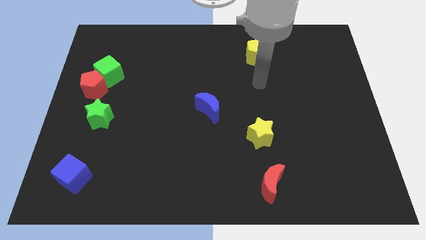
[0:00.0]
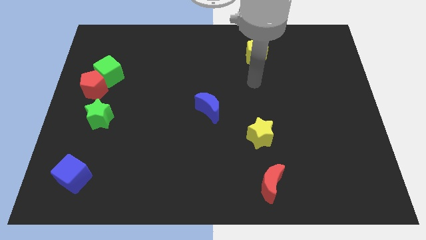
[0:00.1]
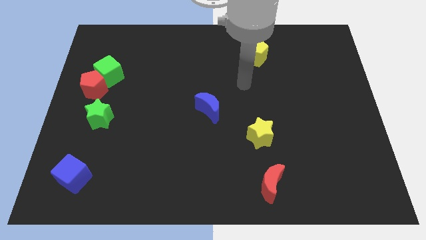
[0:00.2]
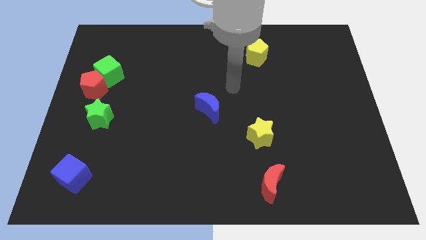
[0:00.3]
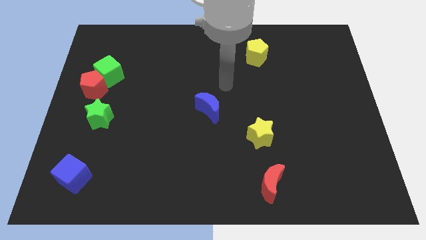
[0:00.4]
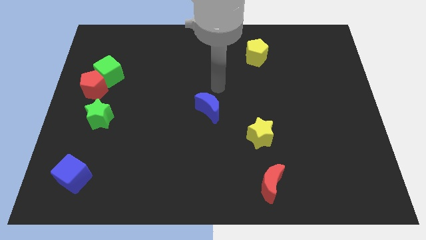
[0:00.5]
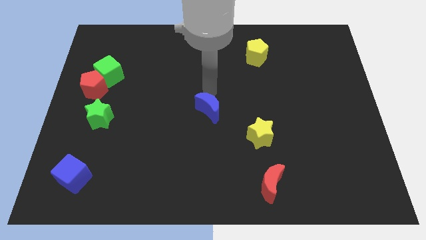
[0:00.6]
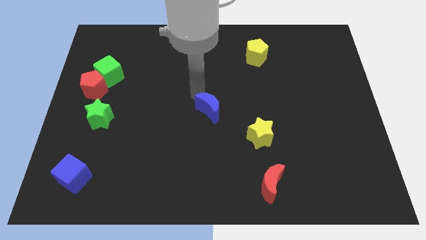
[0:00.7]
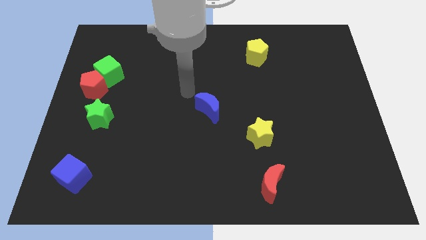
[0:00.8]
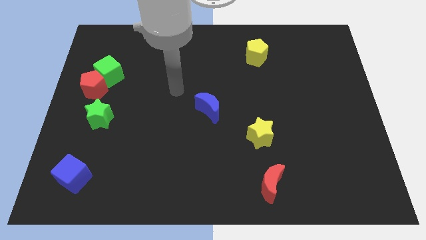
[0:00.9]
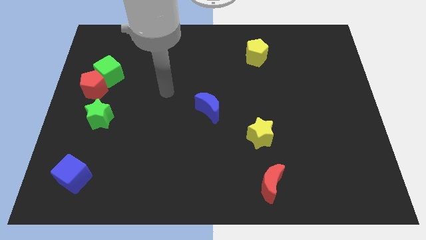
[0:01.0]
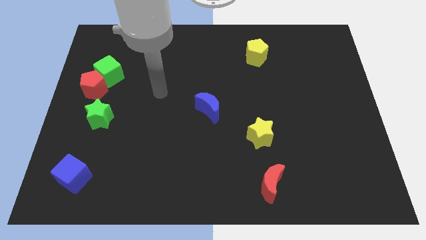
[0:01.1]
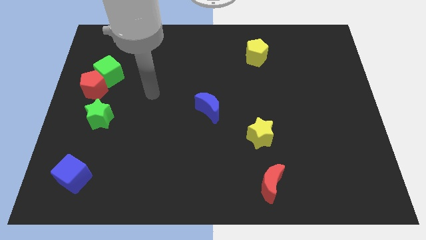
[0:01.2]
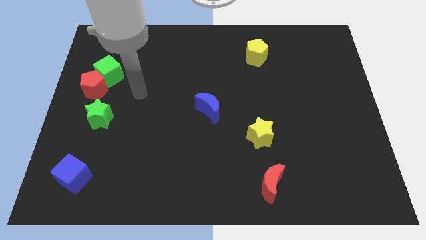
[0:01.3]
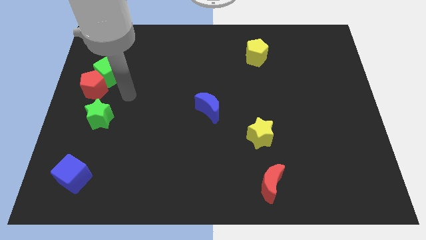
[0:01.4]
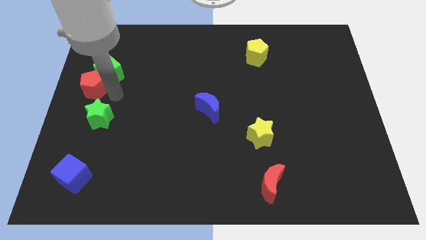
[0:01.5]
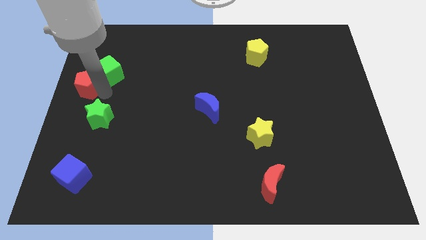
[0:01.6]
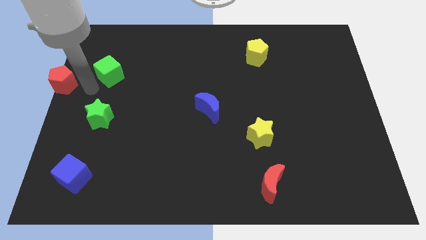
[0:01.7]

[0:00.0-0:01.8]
pull the green cube apart from the red pentagon

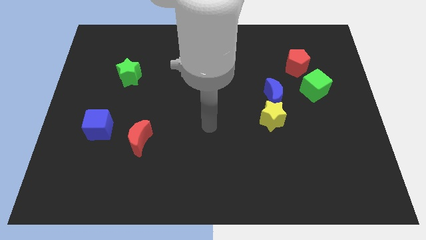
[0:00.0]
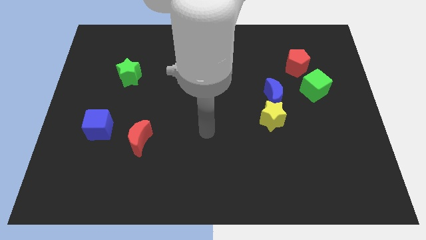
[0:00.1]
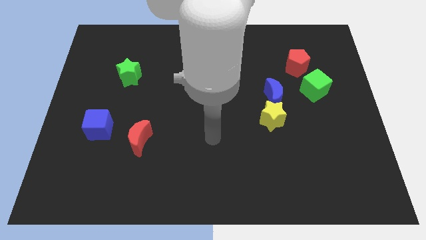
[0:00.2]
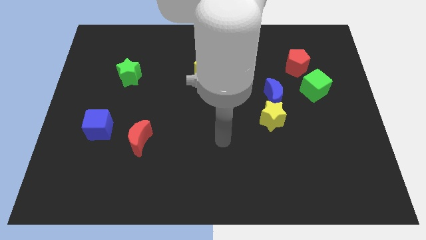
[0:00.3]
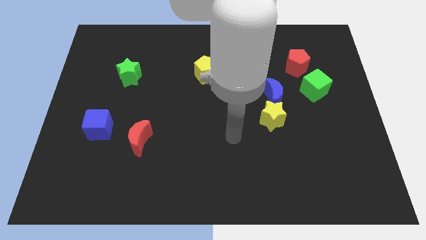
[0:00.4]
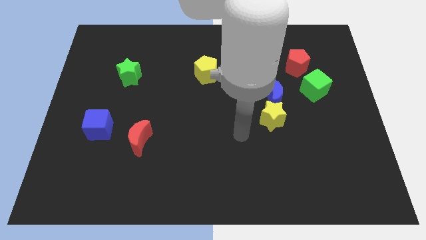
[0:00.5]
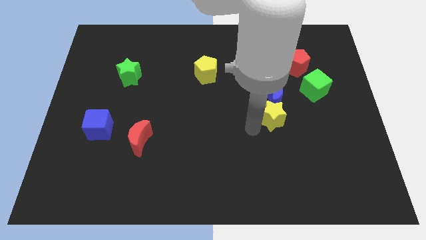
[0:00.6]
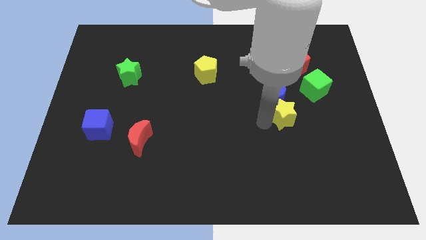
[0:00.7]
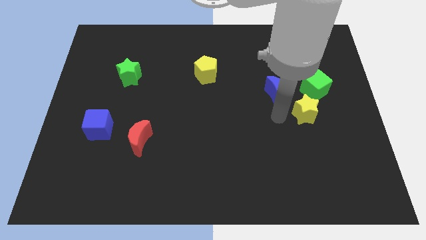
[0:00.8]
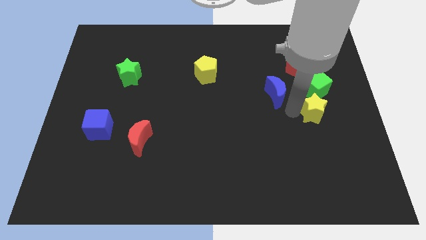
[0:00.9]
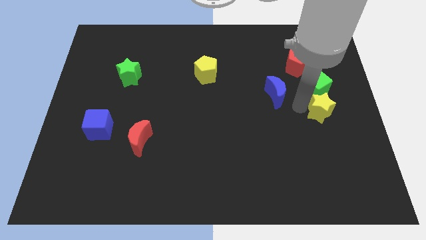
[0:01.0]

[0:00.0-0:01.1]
move the blue moon away from the yellow star

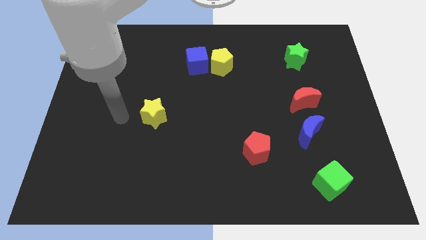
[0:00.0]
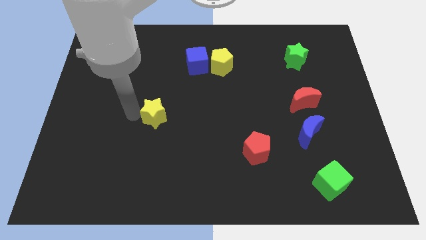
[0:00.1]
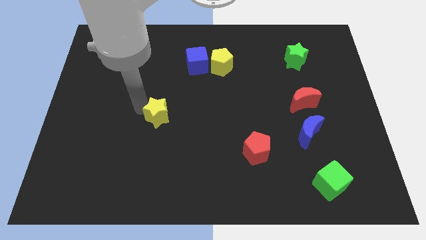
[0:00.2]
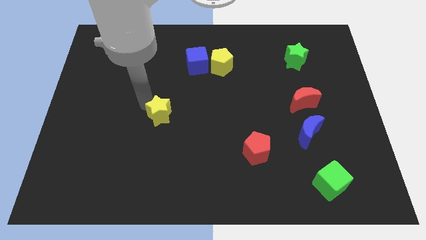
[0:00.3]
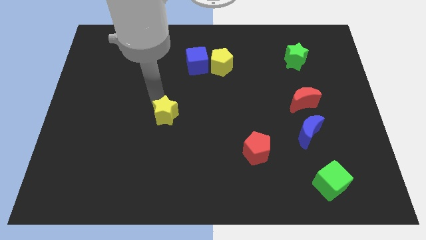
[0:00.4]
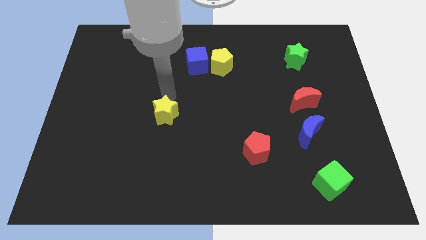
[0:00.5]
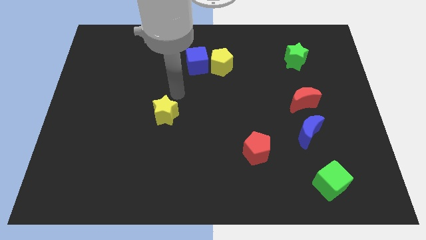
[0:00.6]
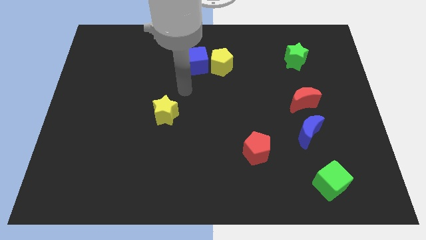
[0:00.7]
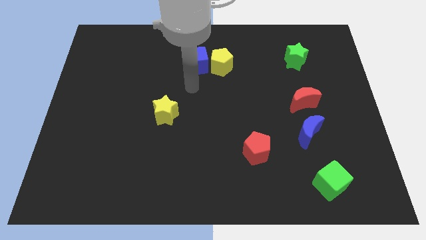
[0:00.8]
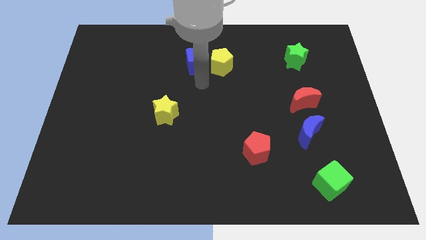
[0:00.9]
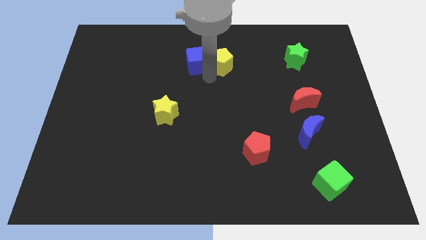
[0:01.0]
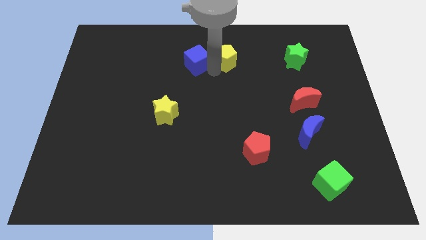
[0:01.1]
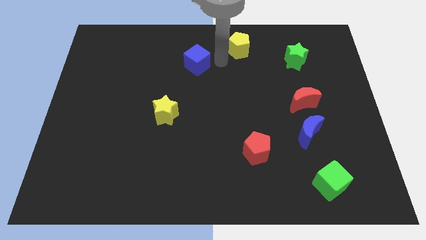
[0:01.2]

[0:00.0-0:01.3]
move the blue cube away from the yellow pentagon

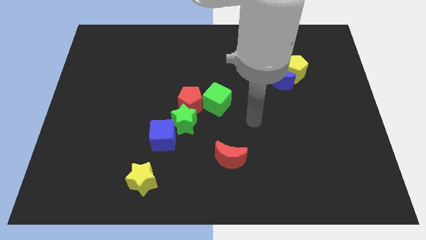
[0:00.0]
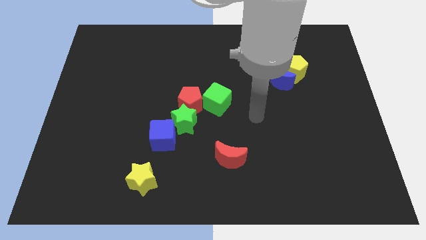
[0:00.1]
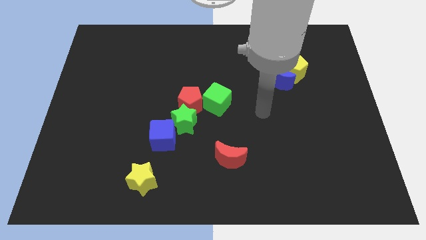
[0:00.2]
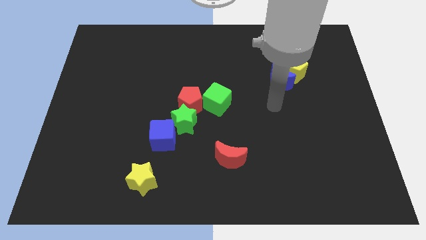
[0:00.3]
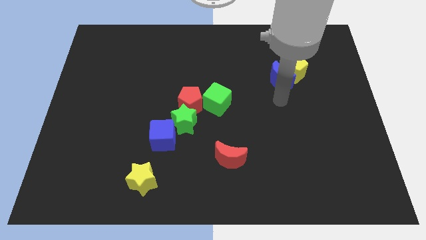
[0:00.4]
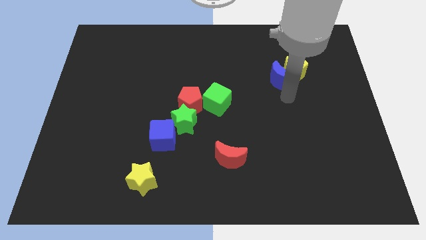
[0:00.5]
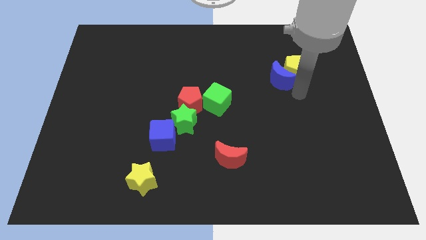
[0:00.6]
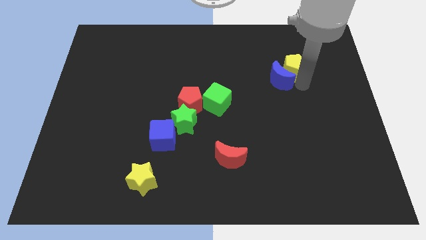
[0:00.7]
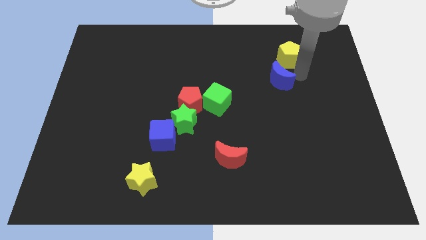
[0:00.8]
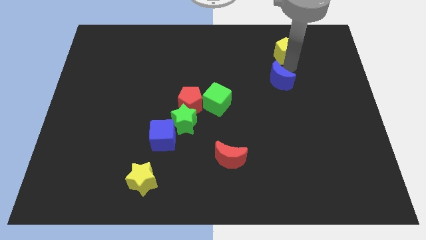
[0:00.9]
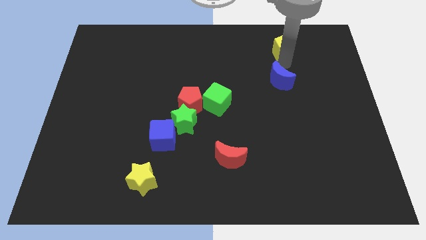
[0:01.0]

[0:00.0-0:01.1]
separate the blue moon from the yellow pentagon

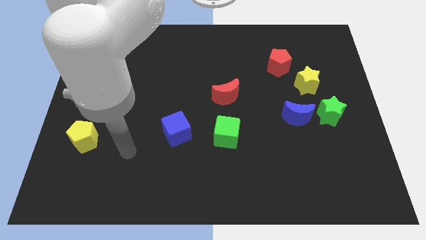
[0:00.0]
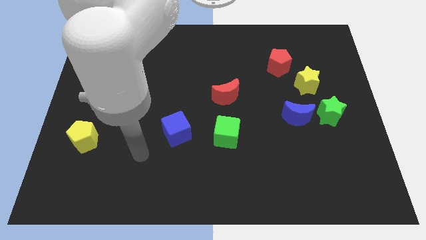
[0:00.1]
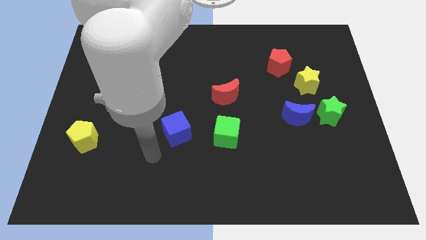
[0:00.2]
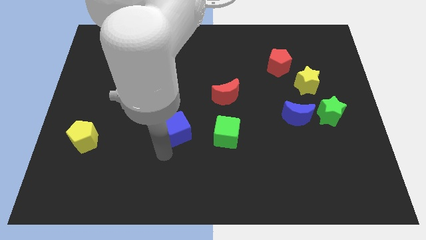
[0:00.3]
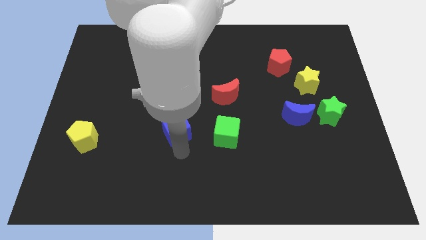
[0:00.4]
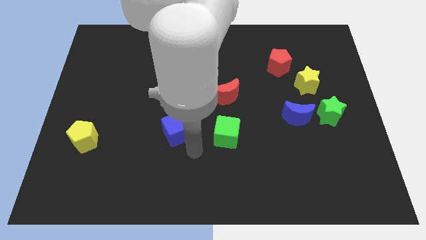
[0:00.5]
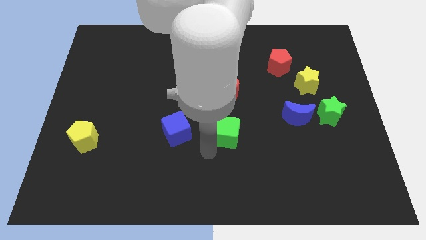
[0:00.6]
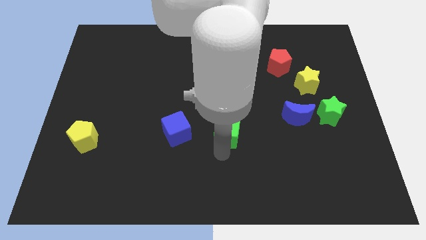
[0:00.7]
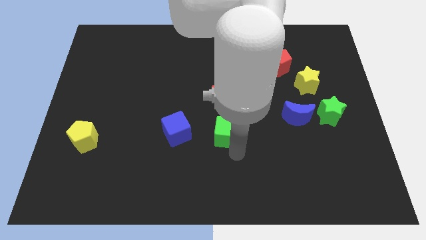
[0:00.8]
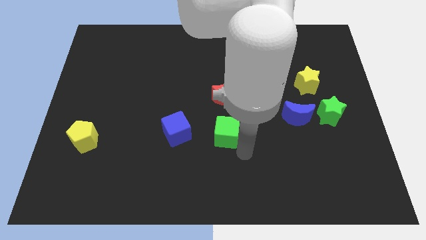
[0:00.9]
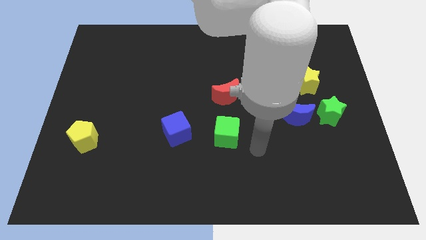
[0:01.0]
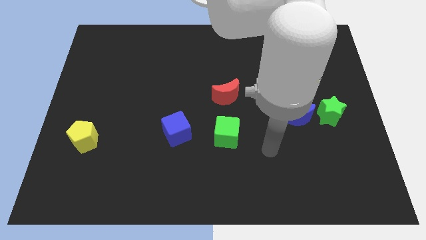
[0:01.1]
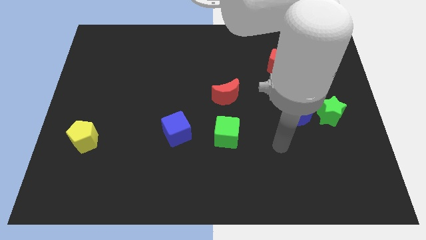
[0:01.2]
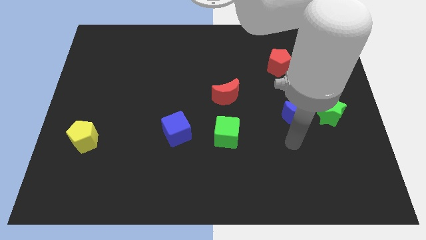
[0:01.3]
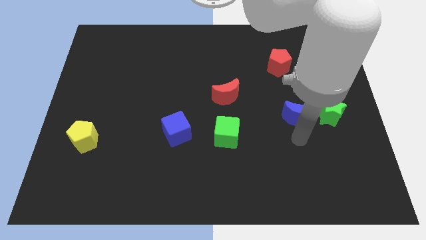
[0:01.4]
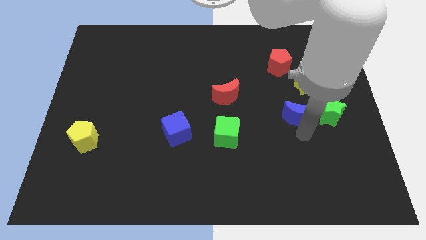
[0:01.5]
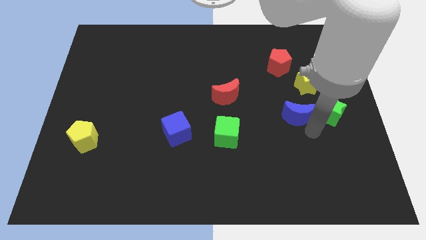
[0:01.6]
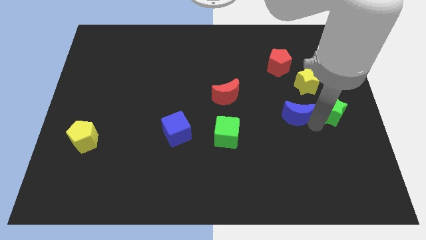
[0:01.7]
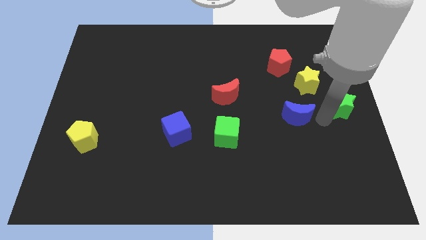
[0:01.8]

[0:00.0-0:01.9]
pull the blue moon apart from the green star

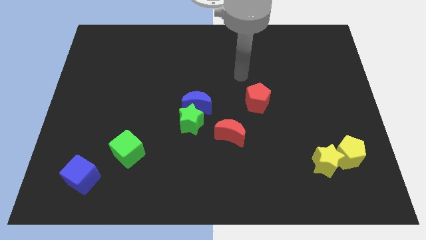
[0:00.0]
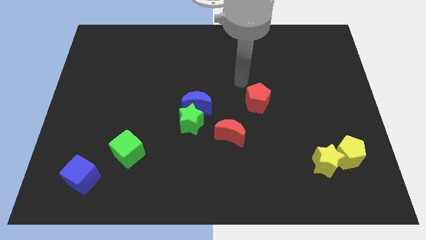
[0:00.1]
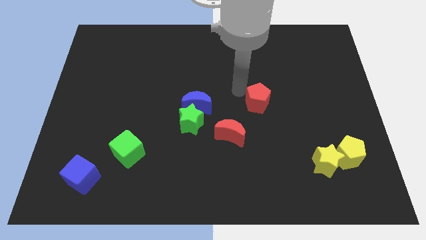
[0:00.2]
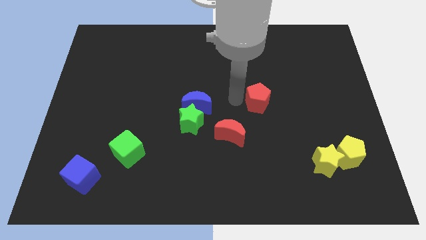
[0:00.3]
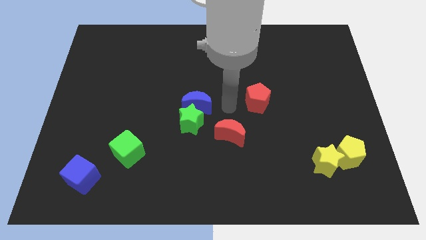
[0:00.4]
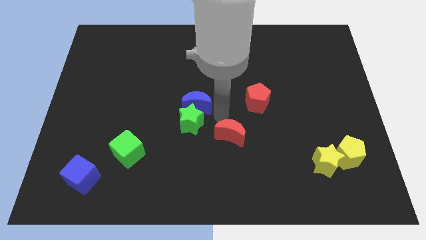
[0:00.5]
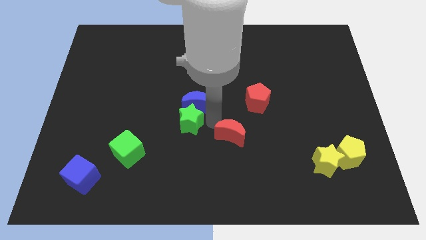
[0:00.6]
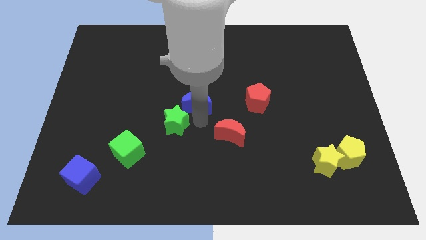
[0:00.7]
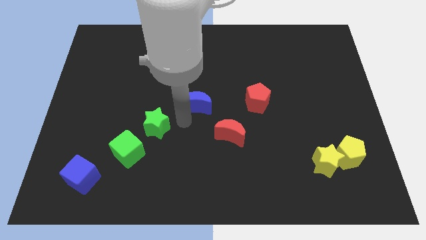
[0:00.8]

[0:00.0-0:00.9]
move the blue moon away from the green star

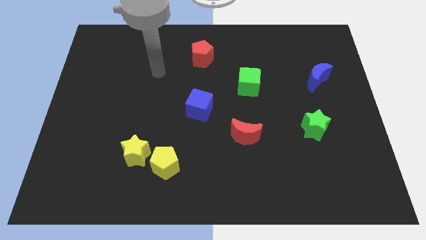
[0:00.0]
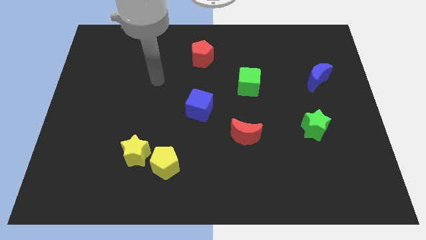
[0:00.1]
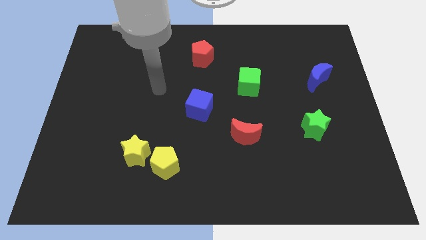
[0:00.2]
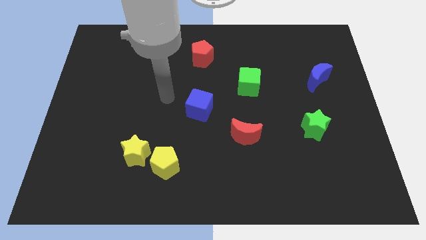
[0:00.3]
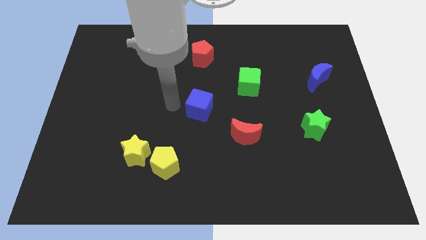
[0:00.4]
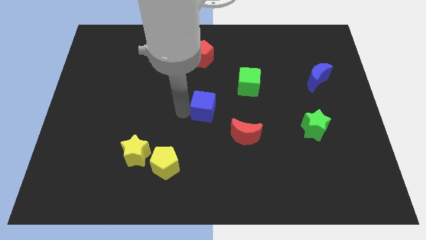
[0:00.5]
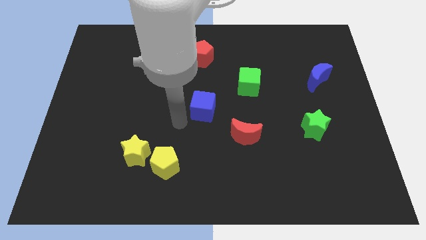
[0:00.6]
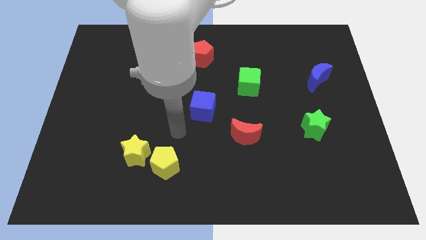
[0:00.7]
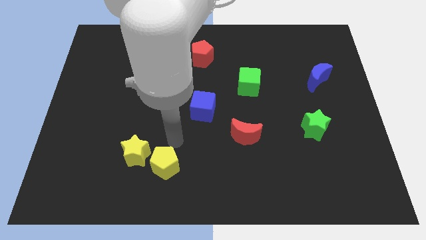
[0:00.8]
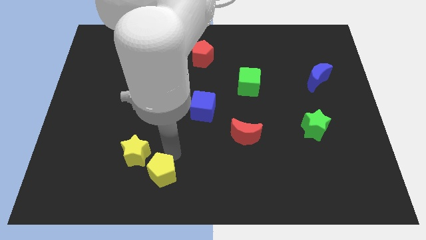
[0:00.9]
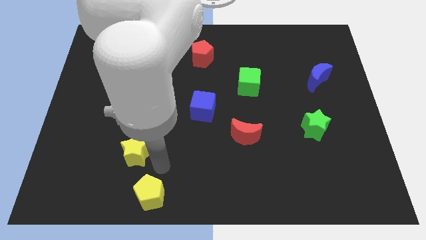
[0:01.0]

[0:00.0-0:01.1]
pull the yellow star apart from the yellow pentagon

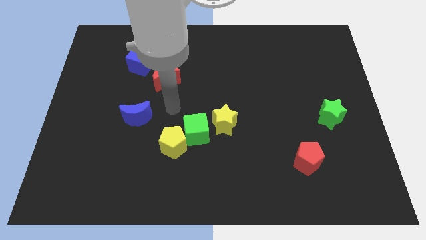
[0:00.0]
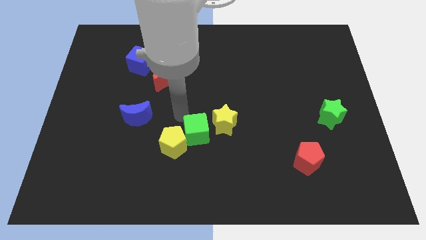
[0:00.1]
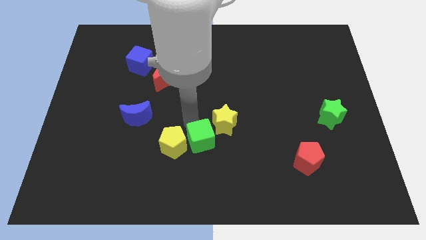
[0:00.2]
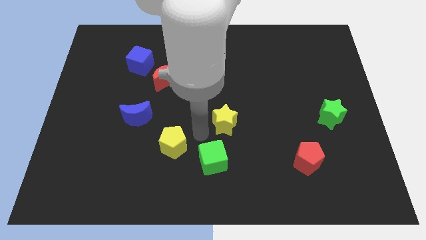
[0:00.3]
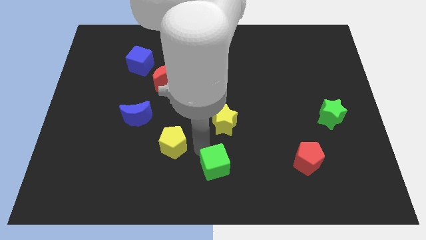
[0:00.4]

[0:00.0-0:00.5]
pull the yellow pentagon apart from the green cube
